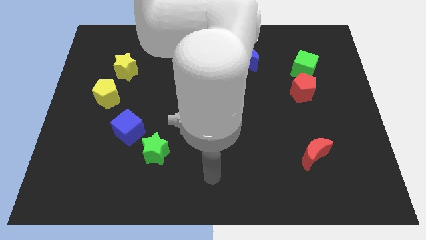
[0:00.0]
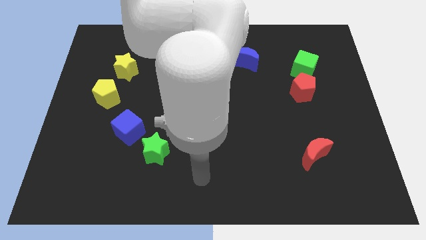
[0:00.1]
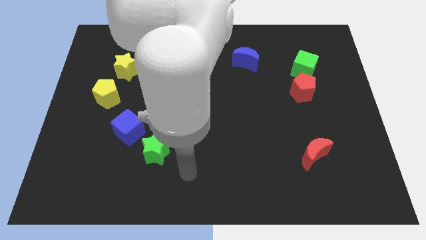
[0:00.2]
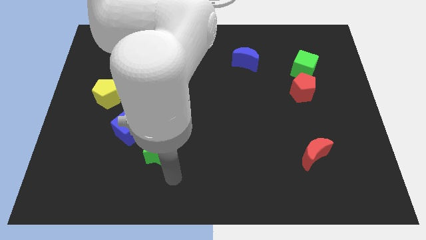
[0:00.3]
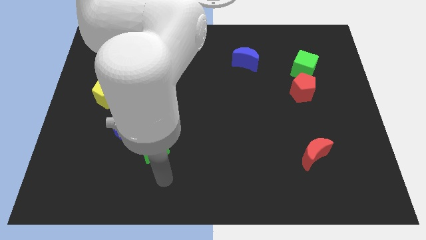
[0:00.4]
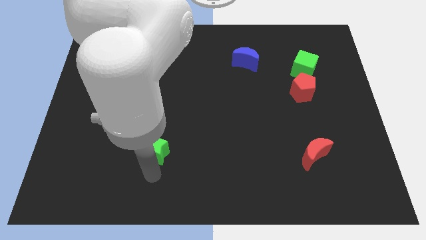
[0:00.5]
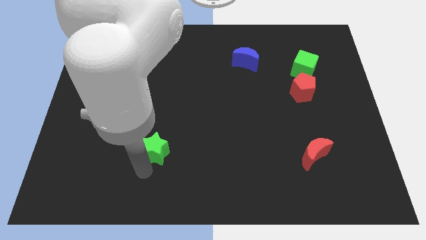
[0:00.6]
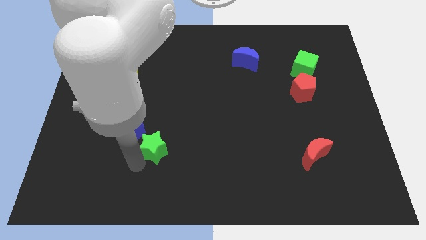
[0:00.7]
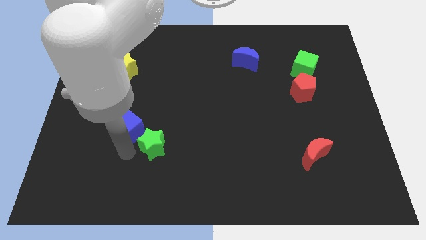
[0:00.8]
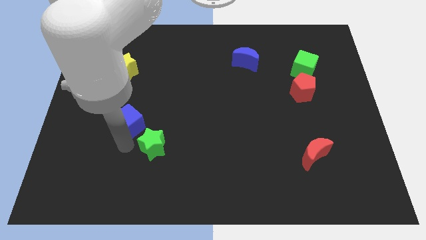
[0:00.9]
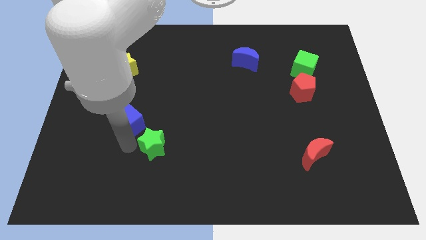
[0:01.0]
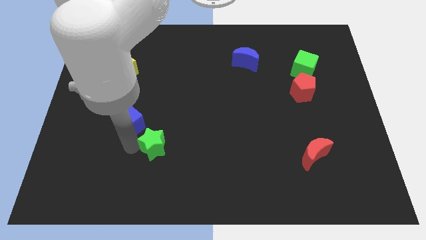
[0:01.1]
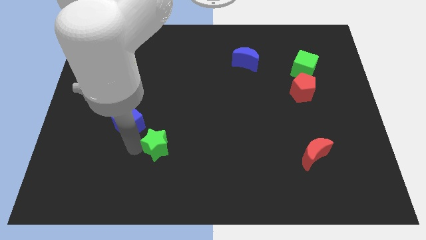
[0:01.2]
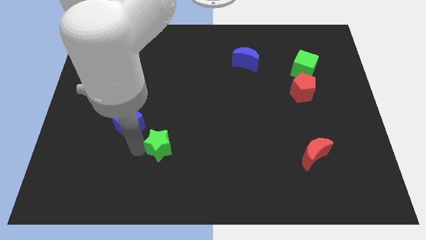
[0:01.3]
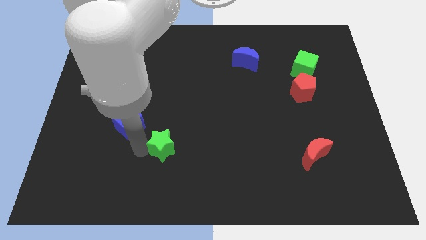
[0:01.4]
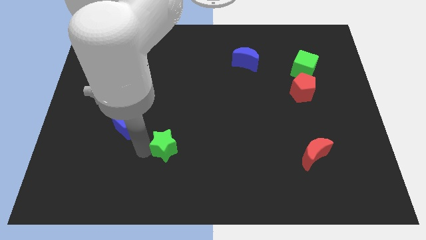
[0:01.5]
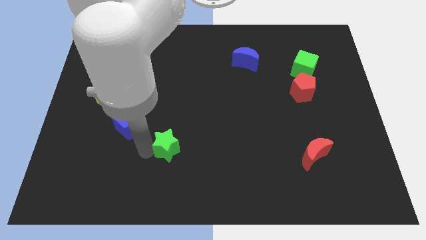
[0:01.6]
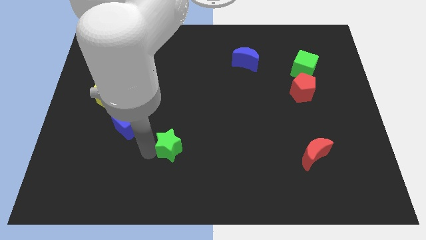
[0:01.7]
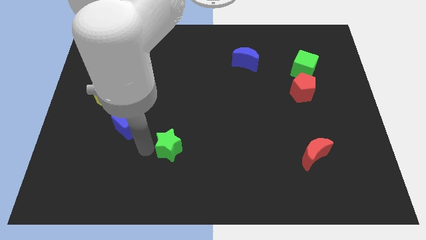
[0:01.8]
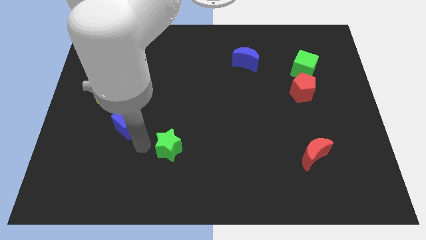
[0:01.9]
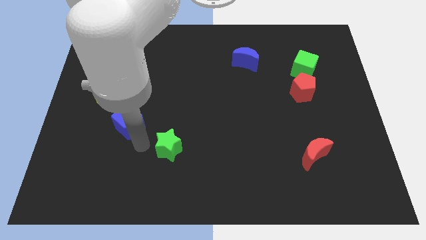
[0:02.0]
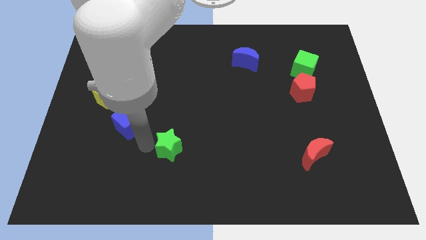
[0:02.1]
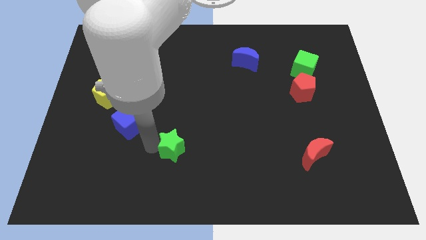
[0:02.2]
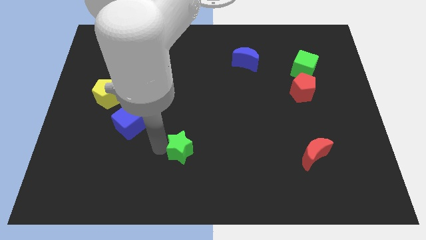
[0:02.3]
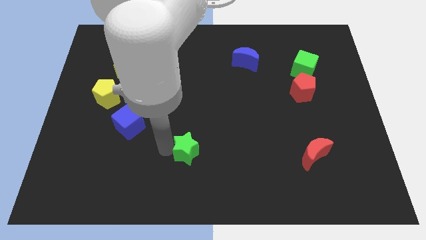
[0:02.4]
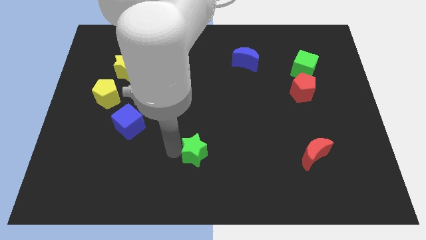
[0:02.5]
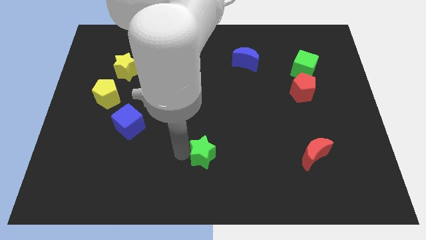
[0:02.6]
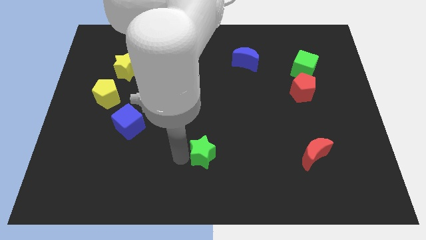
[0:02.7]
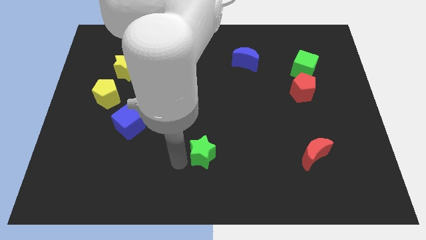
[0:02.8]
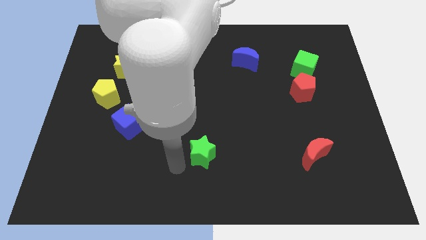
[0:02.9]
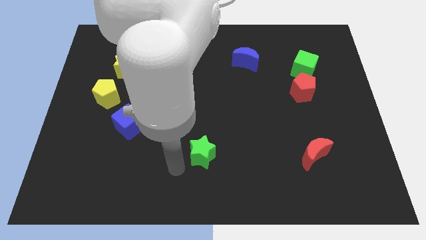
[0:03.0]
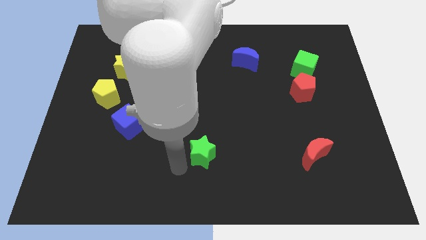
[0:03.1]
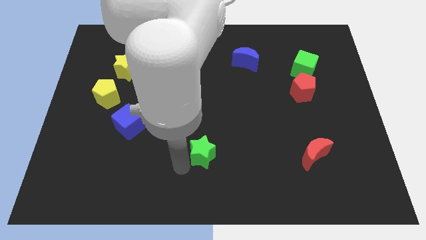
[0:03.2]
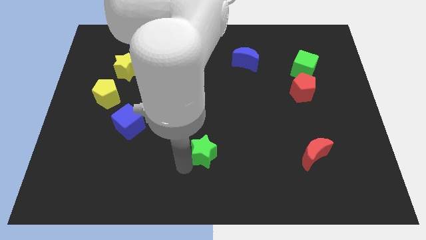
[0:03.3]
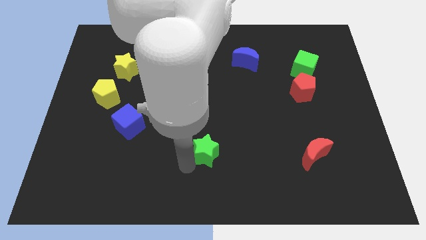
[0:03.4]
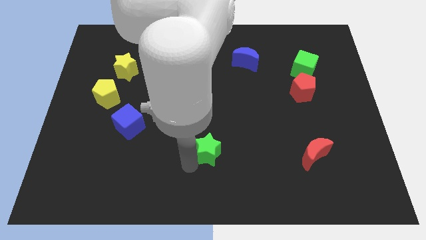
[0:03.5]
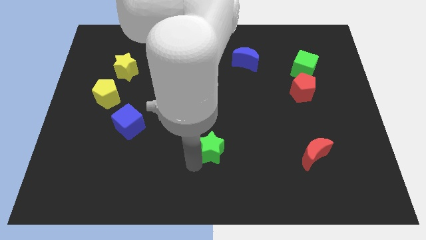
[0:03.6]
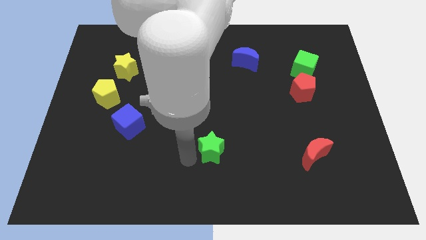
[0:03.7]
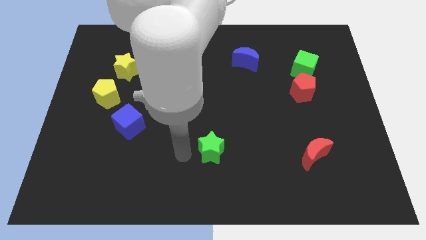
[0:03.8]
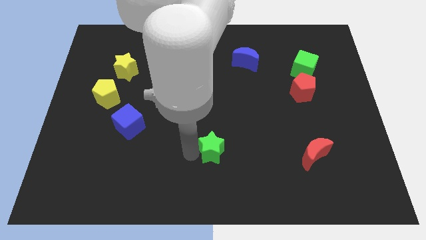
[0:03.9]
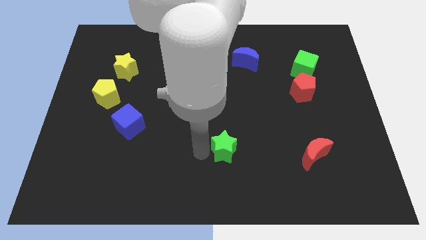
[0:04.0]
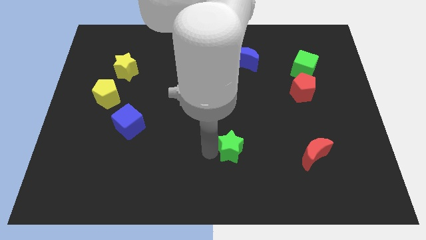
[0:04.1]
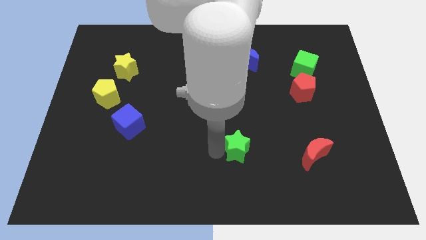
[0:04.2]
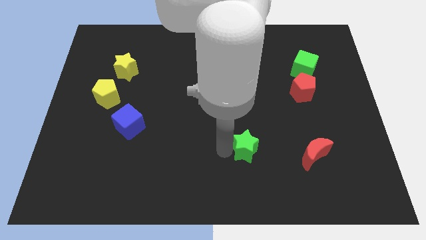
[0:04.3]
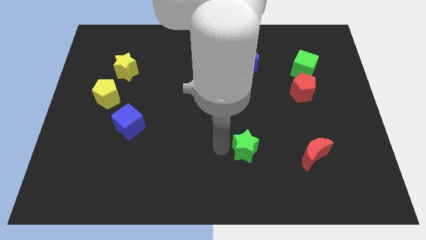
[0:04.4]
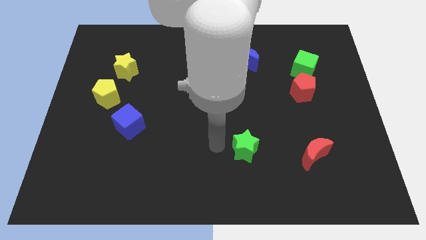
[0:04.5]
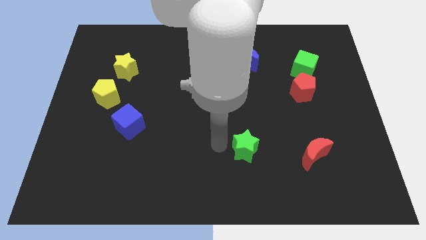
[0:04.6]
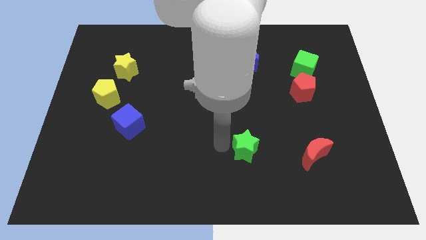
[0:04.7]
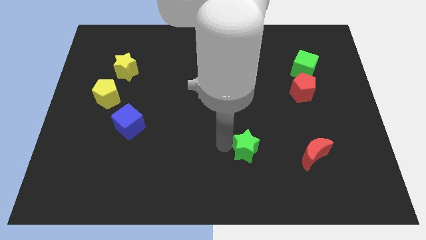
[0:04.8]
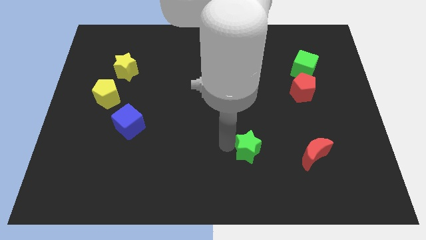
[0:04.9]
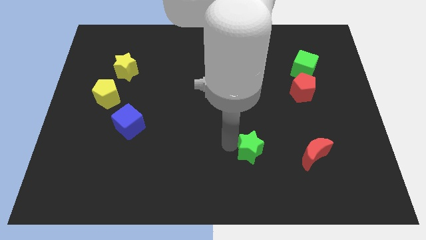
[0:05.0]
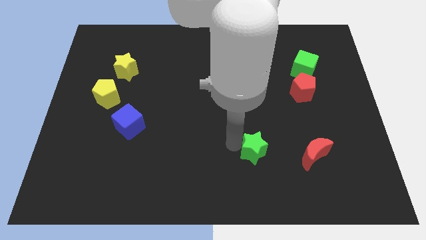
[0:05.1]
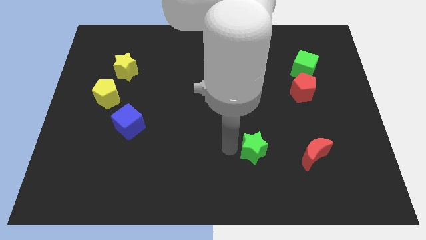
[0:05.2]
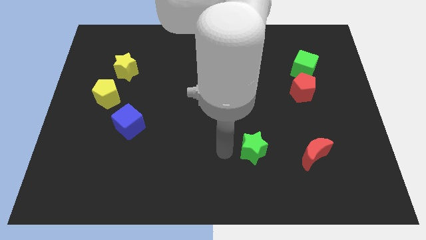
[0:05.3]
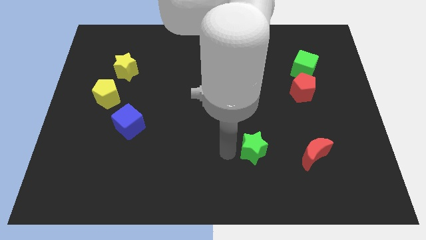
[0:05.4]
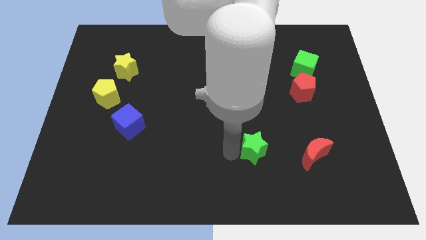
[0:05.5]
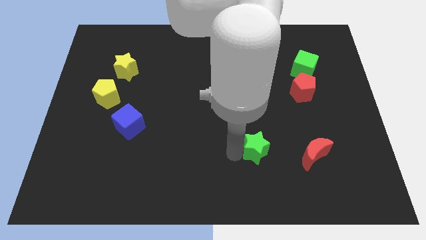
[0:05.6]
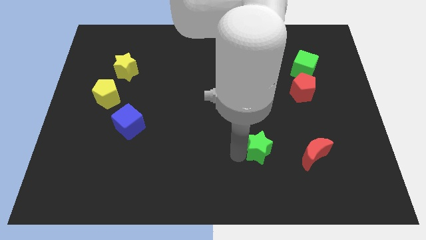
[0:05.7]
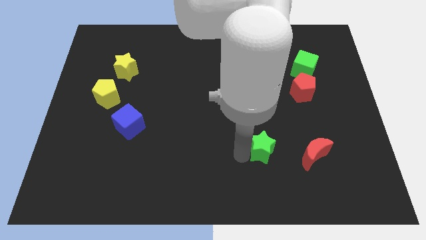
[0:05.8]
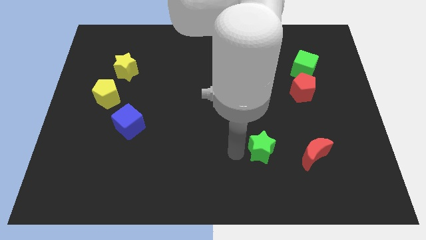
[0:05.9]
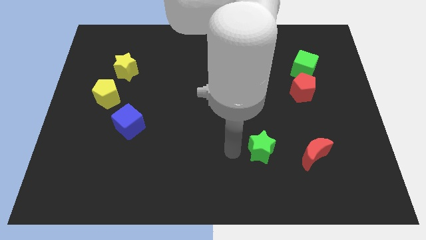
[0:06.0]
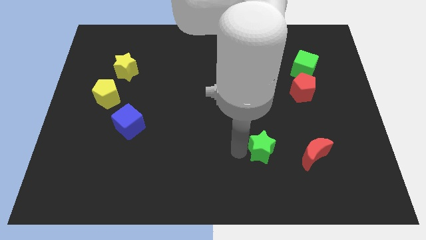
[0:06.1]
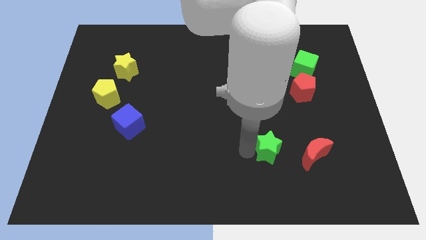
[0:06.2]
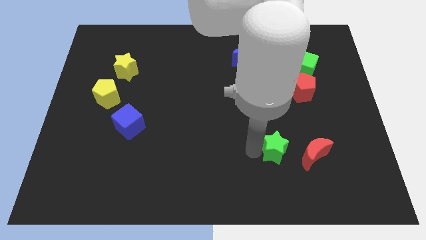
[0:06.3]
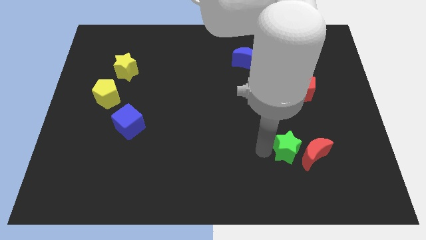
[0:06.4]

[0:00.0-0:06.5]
push the green star to the red moon

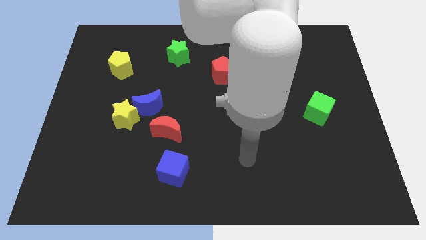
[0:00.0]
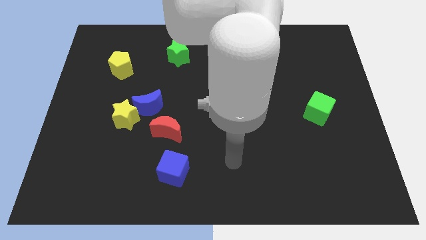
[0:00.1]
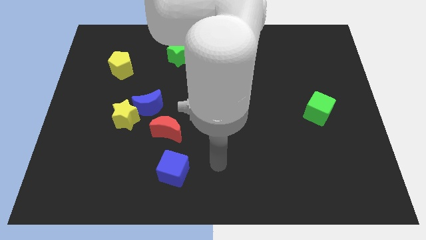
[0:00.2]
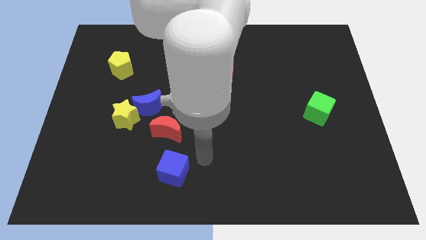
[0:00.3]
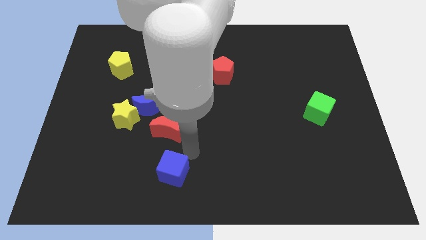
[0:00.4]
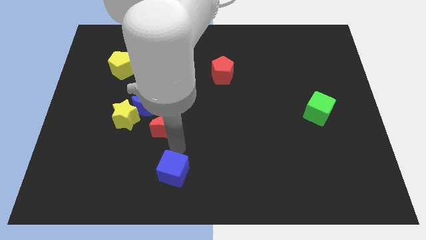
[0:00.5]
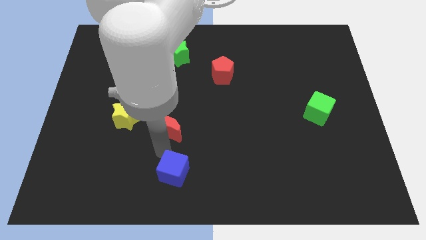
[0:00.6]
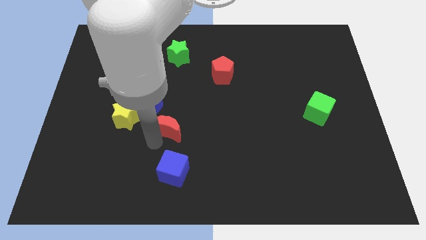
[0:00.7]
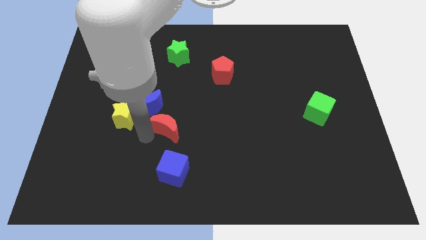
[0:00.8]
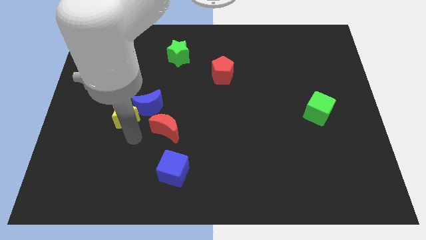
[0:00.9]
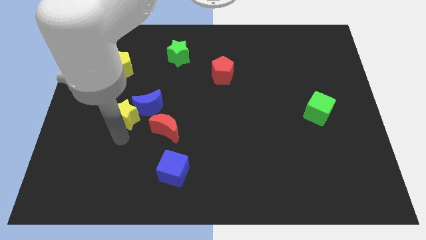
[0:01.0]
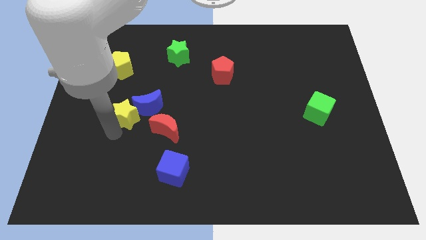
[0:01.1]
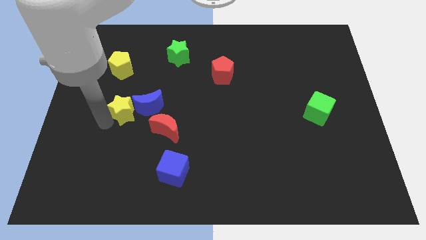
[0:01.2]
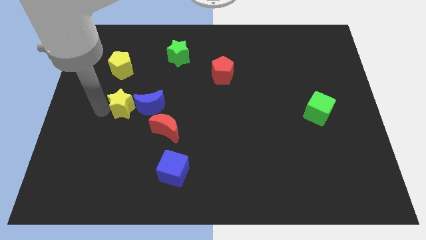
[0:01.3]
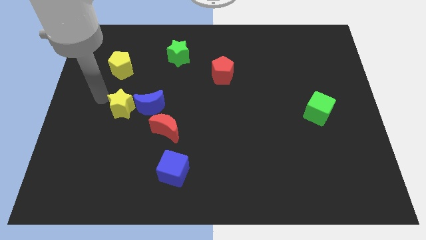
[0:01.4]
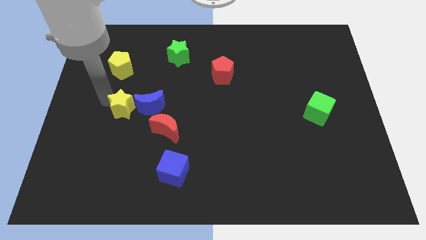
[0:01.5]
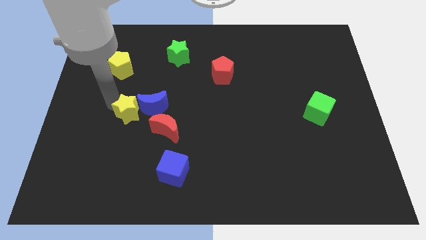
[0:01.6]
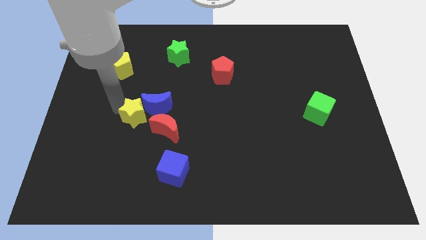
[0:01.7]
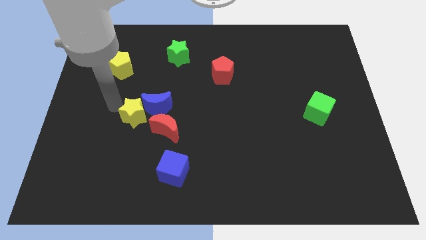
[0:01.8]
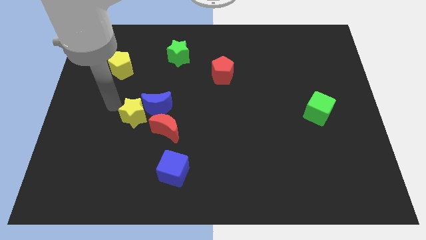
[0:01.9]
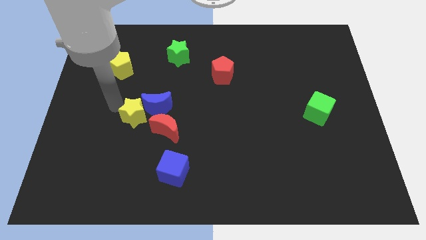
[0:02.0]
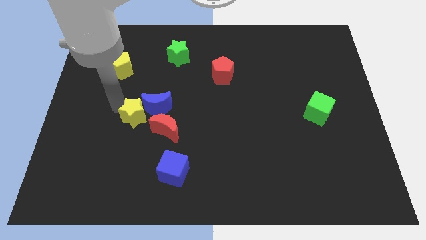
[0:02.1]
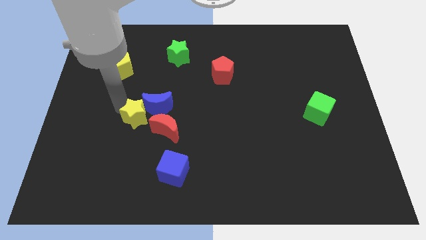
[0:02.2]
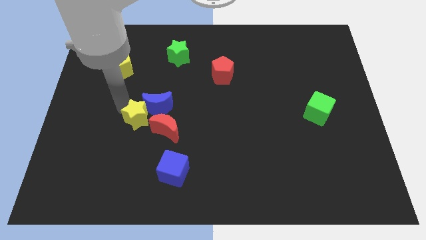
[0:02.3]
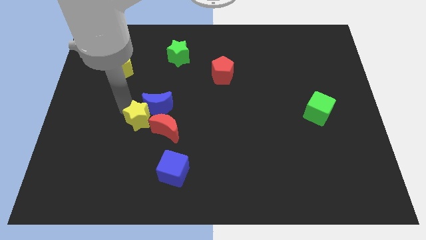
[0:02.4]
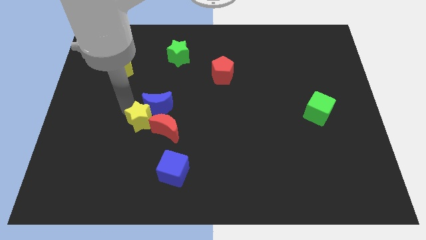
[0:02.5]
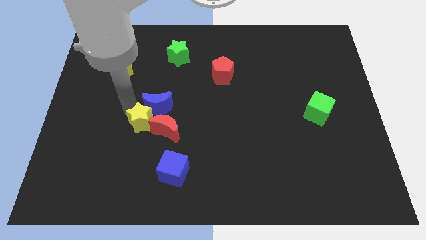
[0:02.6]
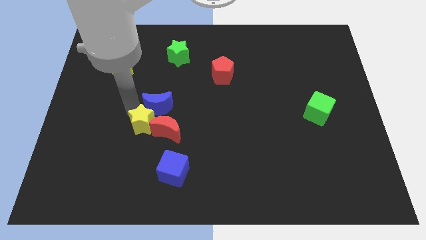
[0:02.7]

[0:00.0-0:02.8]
put the yellow star to the red moon
